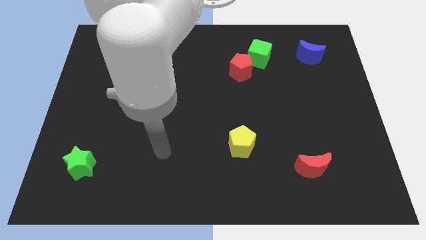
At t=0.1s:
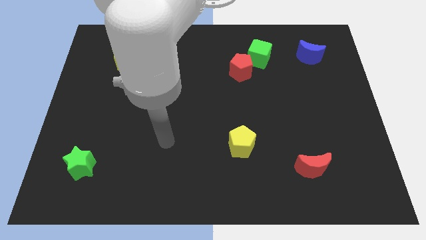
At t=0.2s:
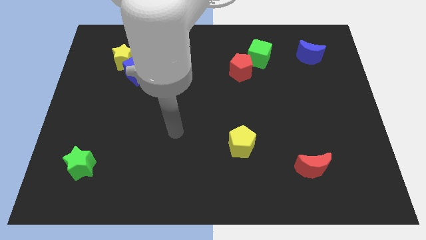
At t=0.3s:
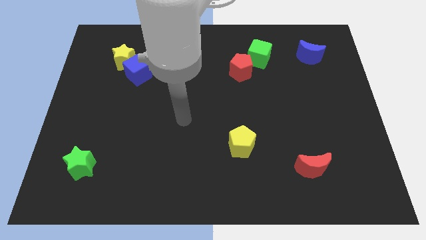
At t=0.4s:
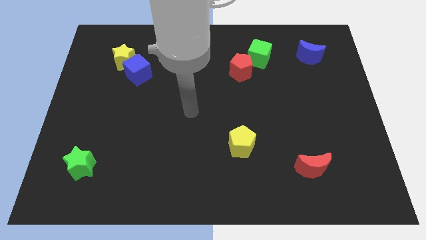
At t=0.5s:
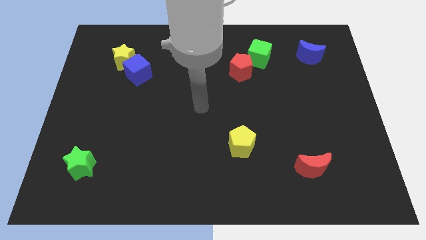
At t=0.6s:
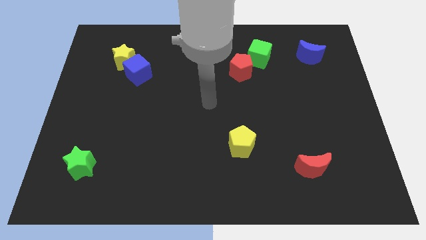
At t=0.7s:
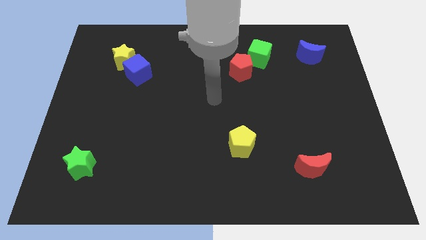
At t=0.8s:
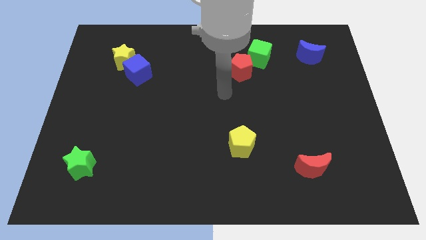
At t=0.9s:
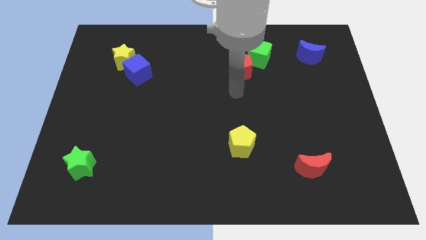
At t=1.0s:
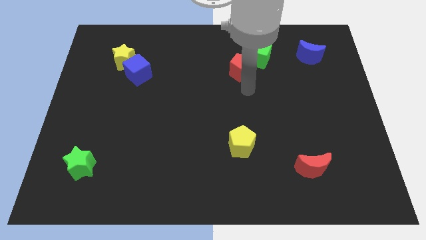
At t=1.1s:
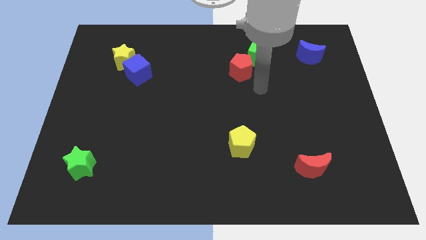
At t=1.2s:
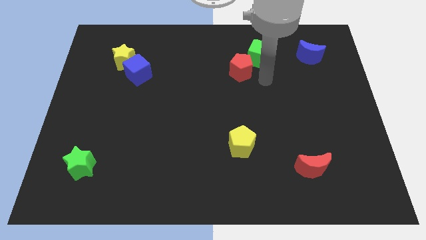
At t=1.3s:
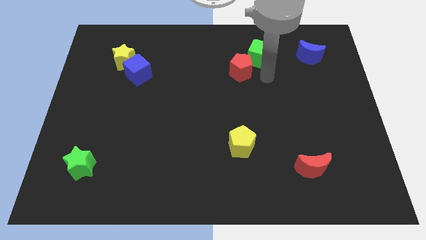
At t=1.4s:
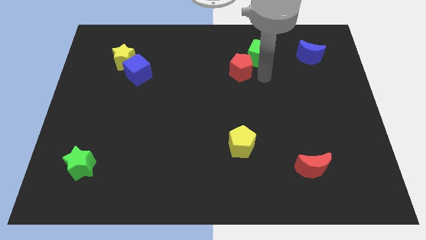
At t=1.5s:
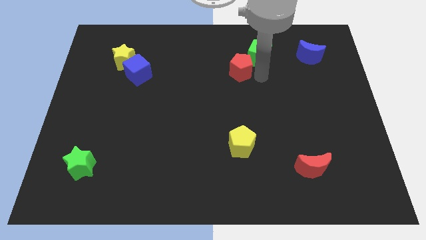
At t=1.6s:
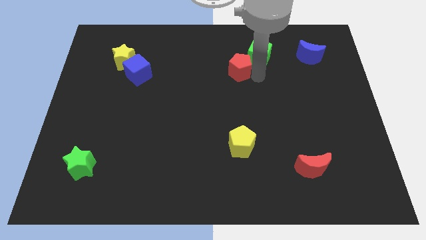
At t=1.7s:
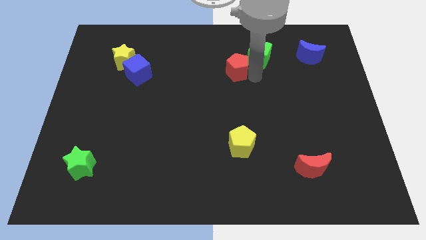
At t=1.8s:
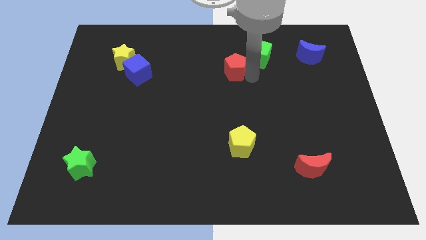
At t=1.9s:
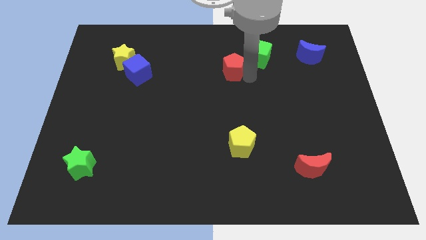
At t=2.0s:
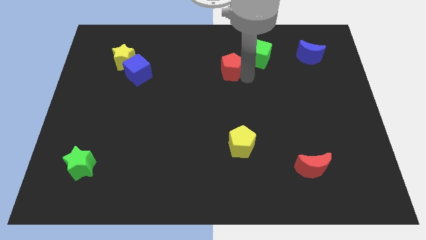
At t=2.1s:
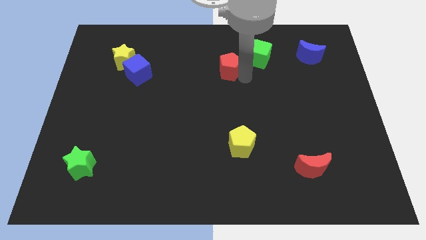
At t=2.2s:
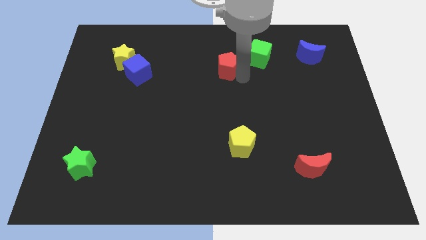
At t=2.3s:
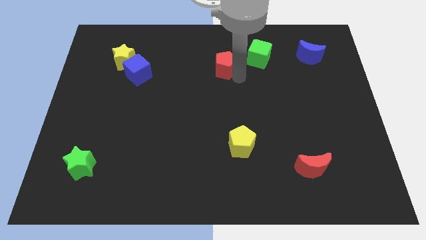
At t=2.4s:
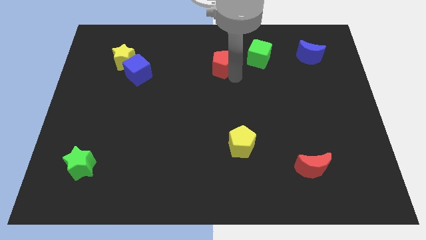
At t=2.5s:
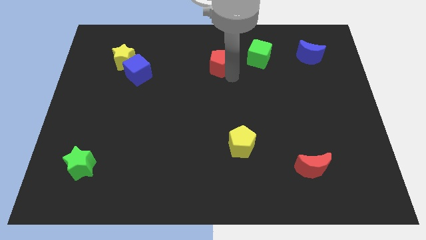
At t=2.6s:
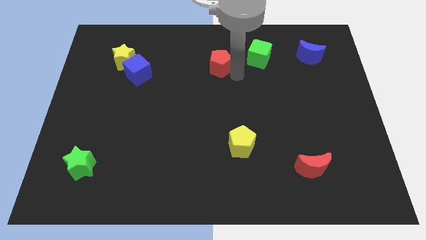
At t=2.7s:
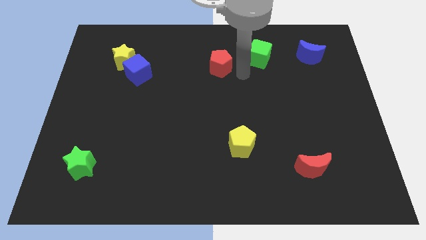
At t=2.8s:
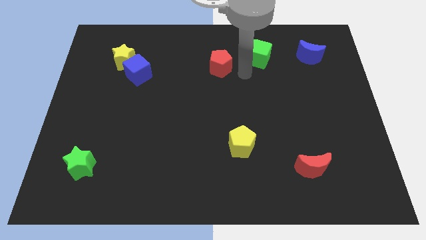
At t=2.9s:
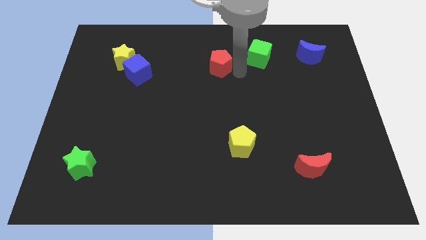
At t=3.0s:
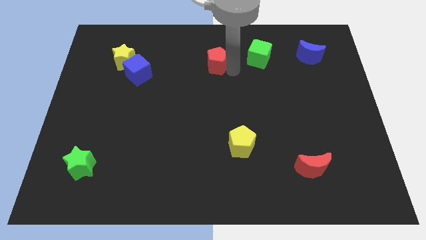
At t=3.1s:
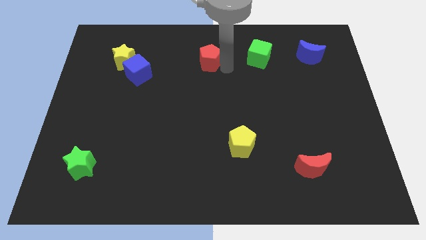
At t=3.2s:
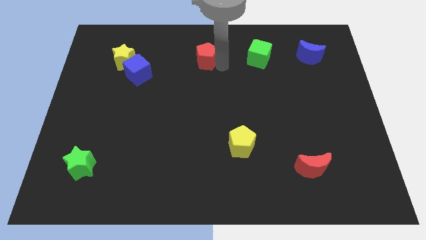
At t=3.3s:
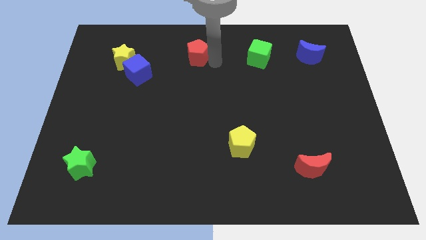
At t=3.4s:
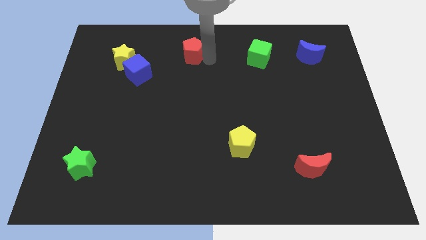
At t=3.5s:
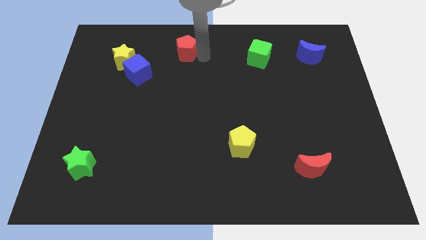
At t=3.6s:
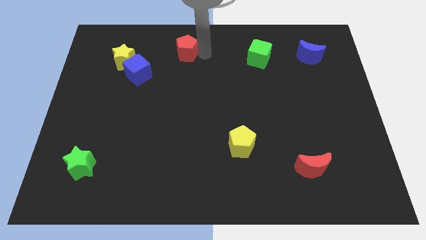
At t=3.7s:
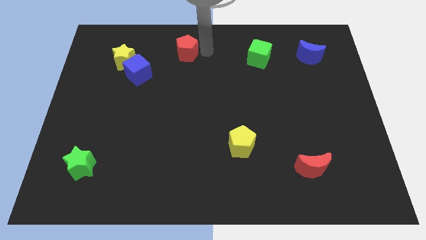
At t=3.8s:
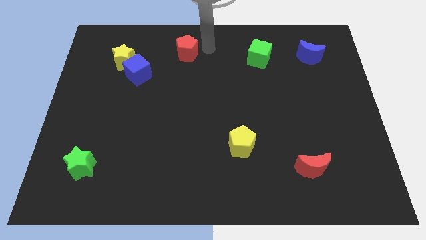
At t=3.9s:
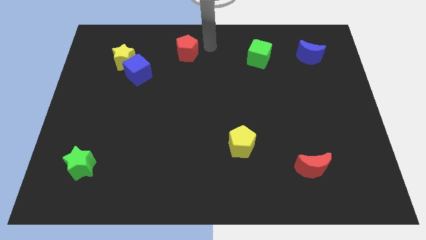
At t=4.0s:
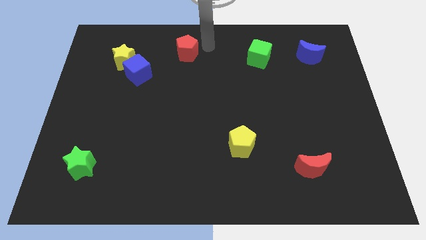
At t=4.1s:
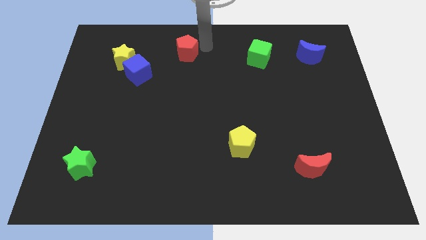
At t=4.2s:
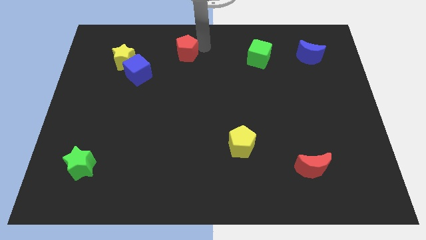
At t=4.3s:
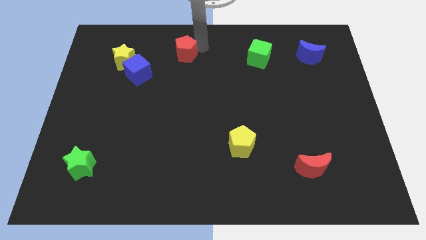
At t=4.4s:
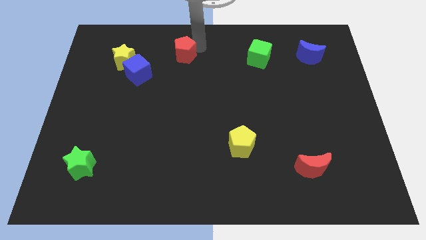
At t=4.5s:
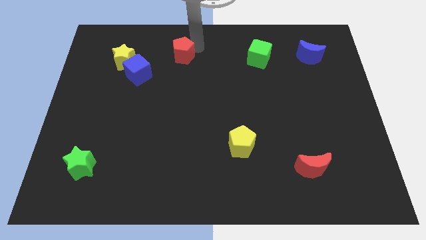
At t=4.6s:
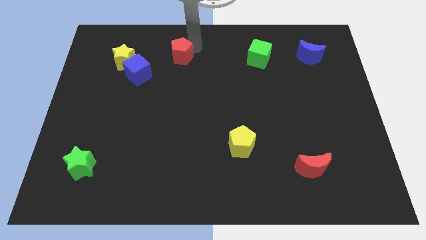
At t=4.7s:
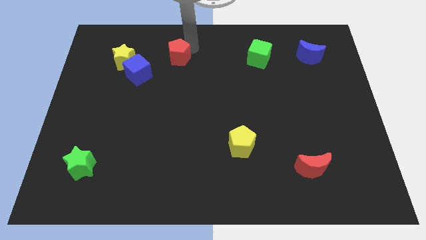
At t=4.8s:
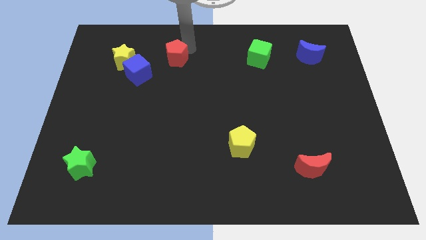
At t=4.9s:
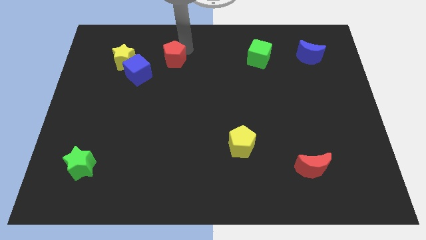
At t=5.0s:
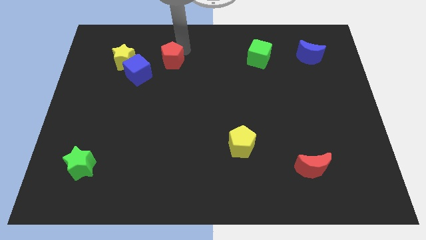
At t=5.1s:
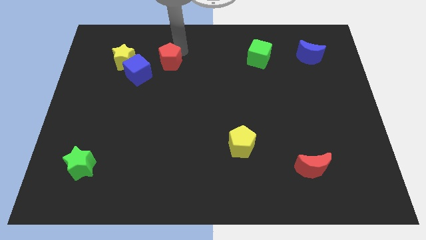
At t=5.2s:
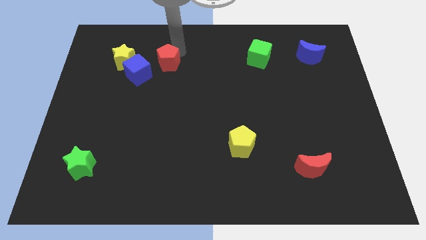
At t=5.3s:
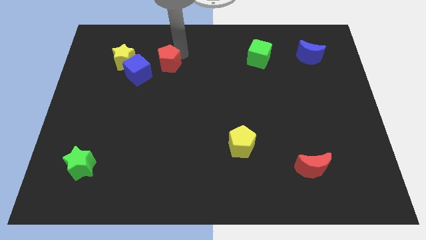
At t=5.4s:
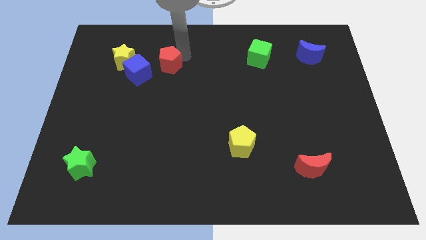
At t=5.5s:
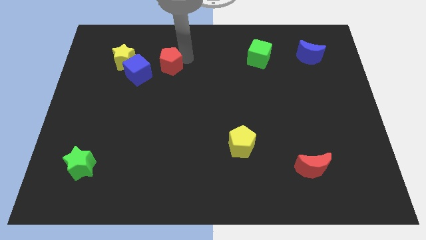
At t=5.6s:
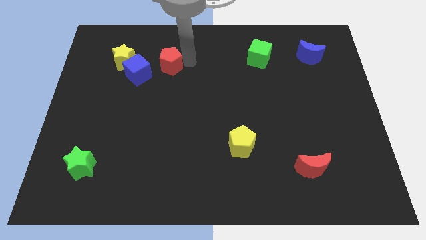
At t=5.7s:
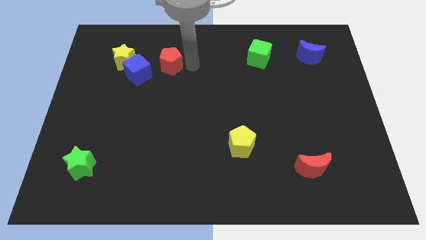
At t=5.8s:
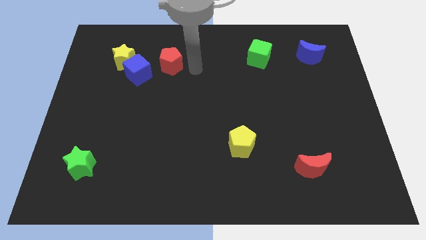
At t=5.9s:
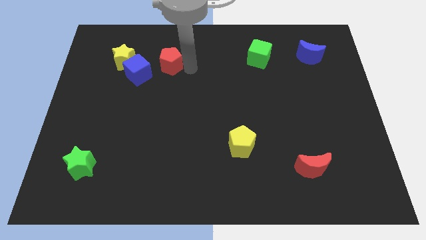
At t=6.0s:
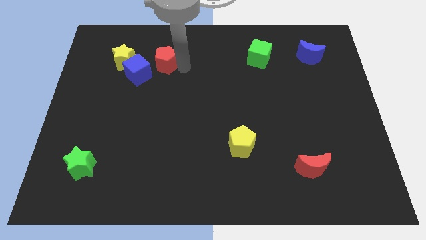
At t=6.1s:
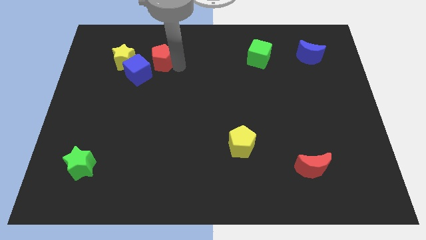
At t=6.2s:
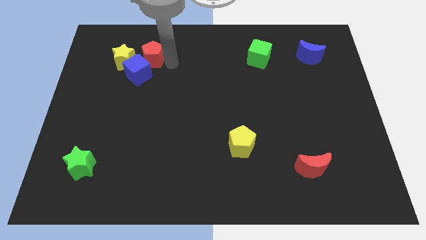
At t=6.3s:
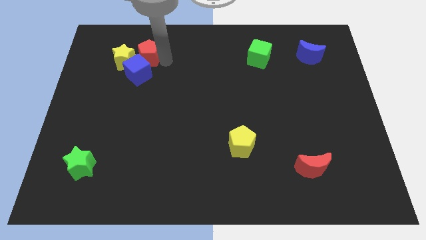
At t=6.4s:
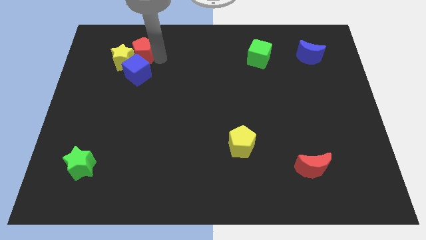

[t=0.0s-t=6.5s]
push the red pentagon next to the yellow star
